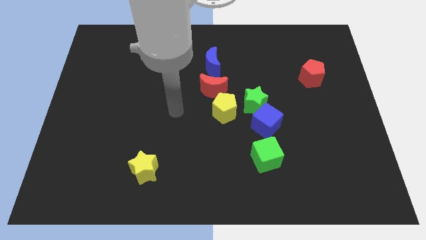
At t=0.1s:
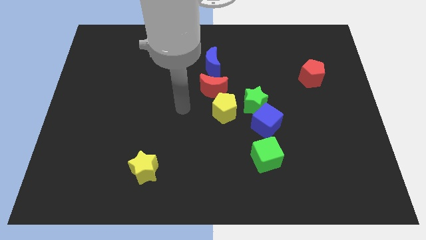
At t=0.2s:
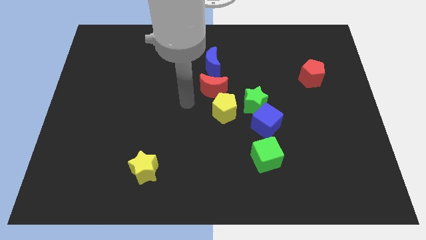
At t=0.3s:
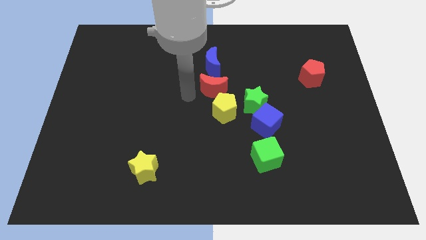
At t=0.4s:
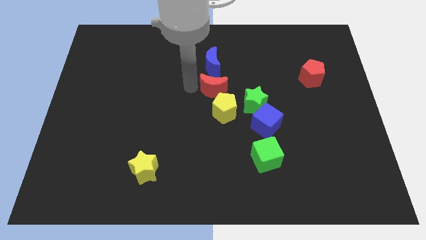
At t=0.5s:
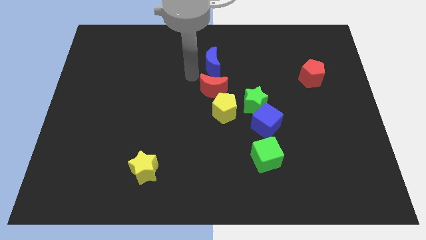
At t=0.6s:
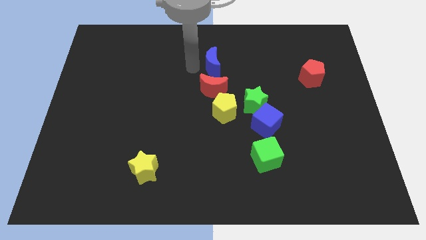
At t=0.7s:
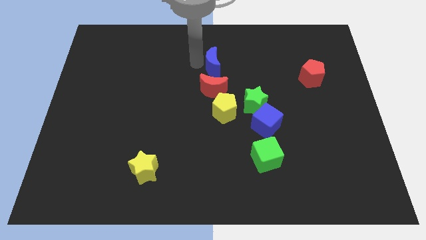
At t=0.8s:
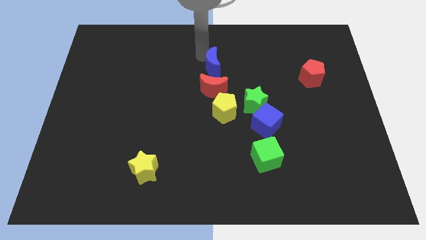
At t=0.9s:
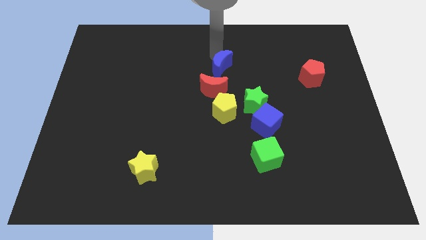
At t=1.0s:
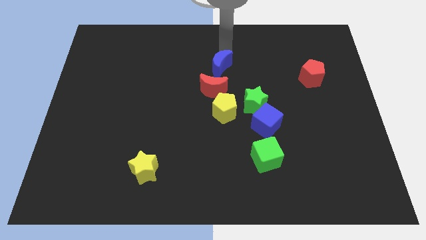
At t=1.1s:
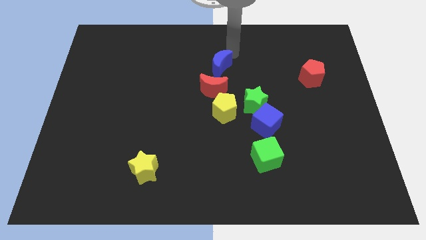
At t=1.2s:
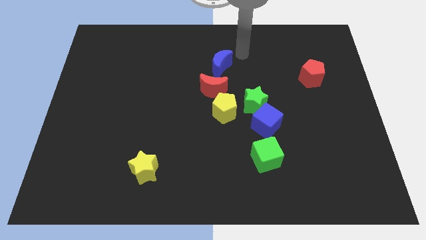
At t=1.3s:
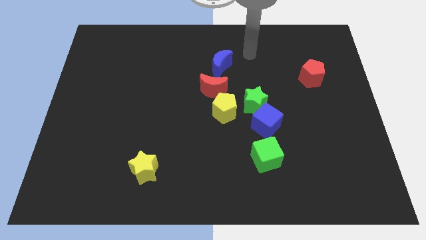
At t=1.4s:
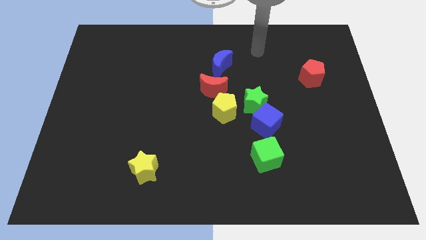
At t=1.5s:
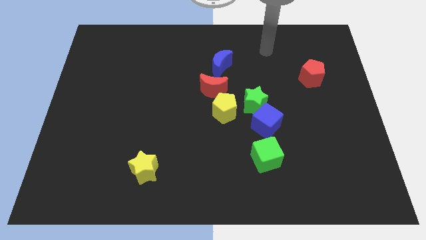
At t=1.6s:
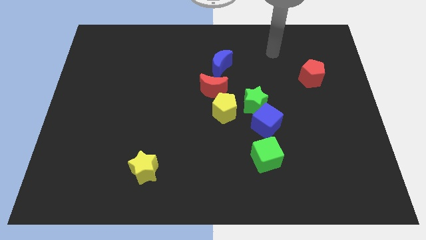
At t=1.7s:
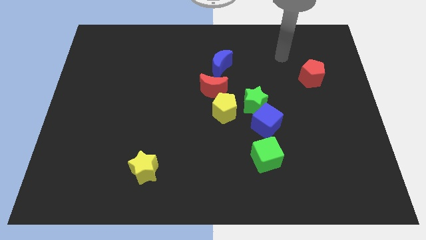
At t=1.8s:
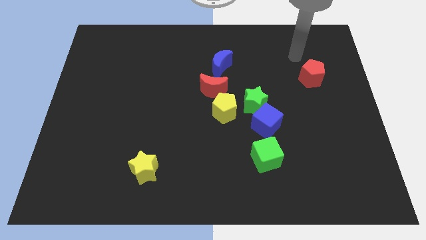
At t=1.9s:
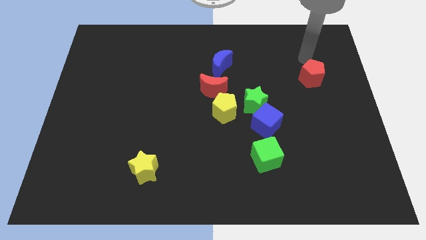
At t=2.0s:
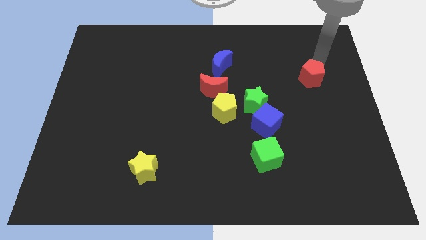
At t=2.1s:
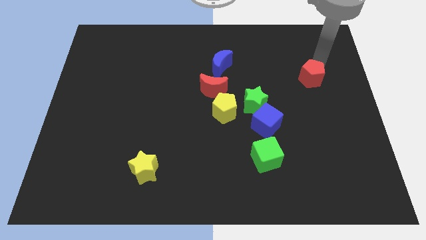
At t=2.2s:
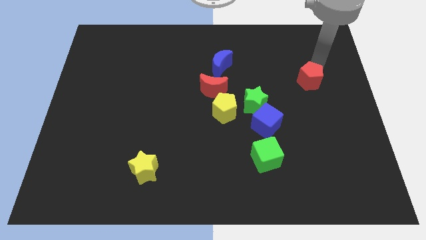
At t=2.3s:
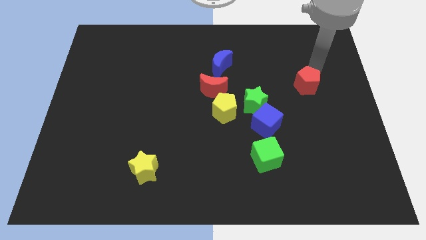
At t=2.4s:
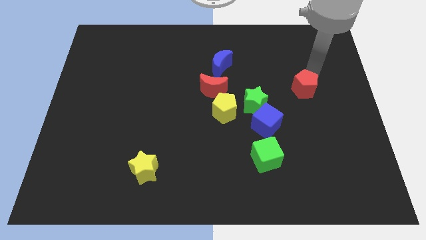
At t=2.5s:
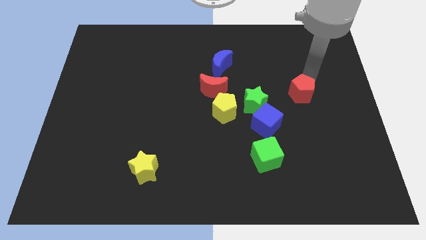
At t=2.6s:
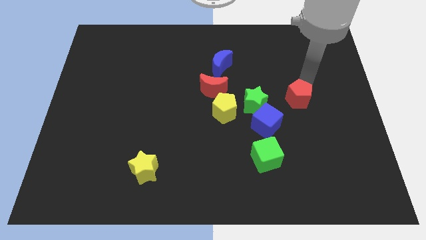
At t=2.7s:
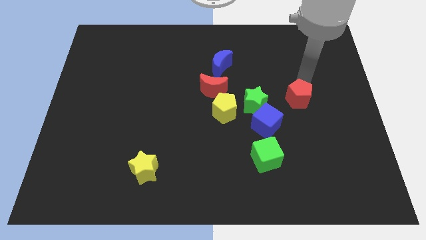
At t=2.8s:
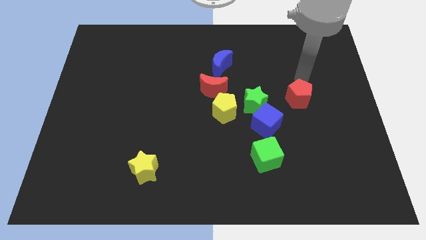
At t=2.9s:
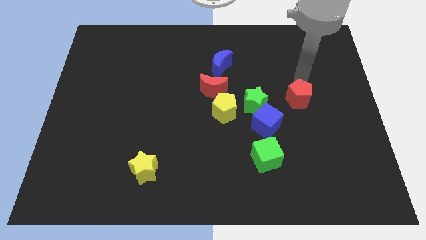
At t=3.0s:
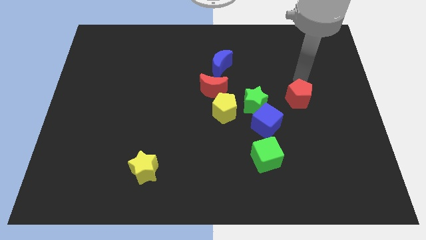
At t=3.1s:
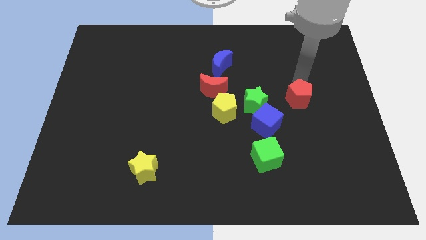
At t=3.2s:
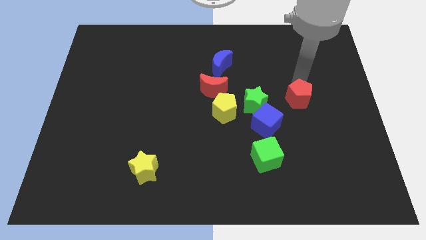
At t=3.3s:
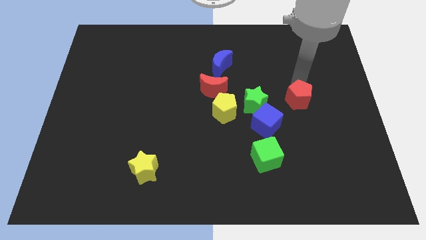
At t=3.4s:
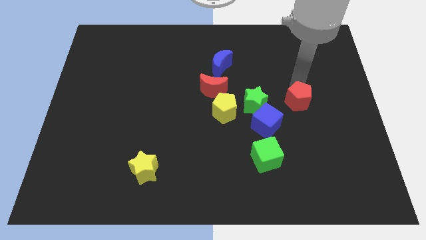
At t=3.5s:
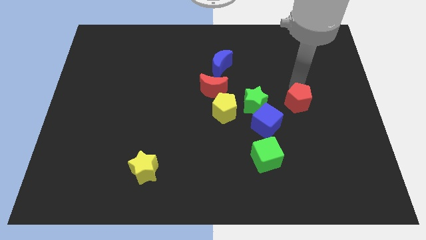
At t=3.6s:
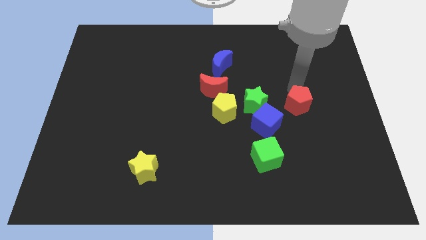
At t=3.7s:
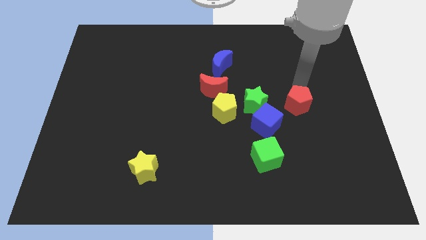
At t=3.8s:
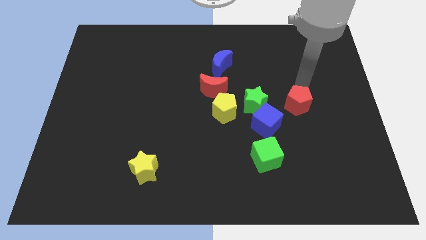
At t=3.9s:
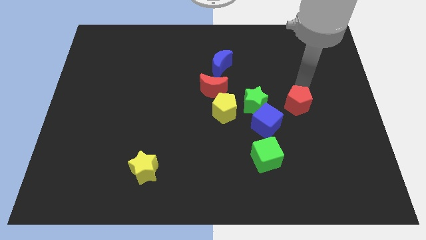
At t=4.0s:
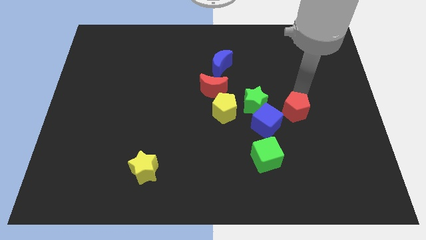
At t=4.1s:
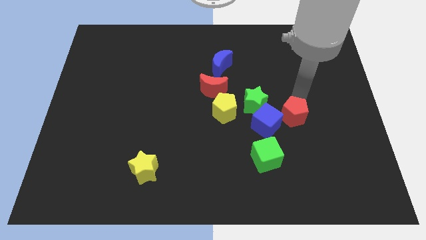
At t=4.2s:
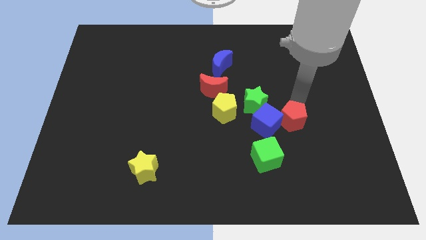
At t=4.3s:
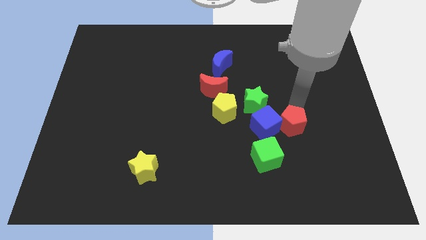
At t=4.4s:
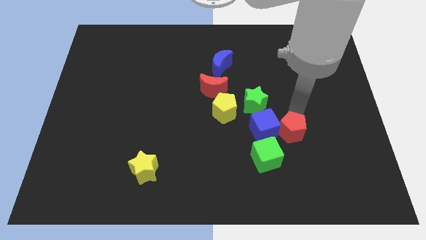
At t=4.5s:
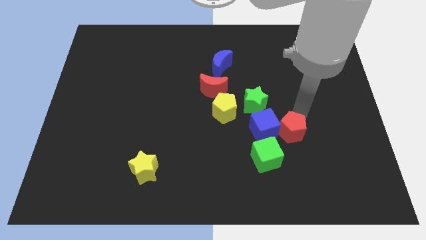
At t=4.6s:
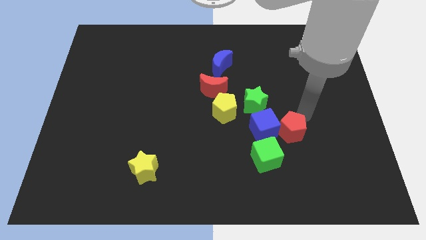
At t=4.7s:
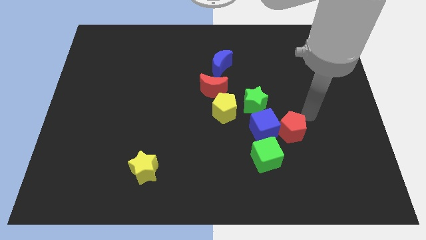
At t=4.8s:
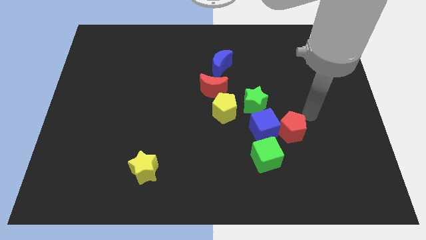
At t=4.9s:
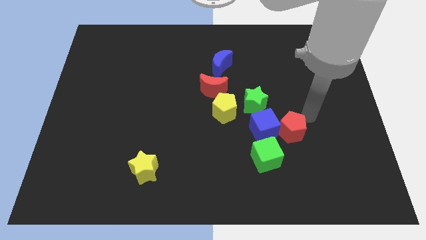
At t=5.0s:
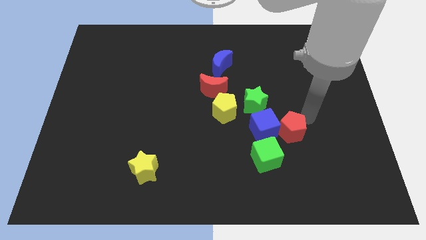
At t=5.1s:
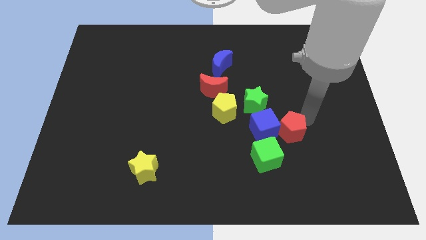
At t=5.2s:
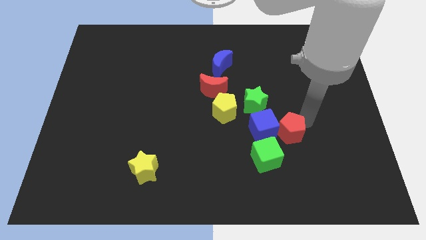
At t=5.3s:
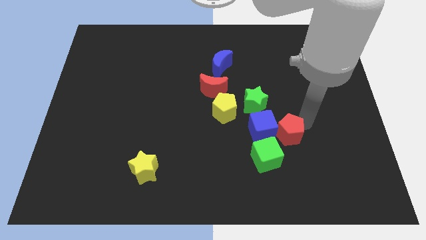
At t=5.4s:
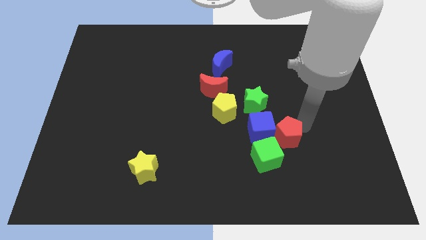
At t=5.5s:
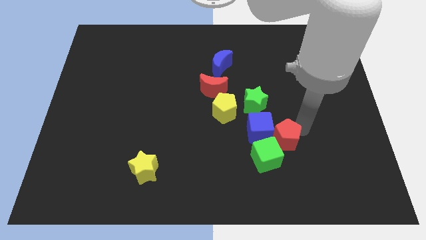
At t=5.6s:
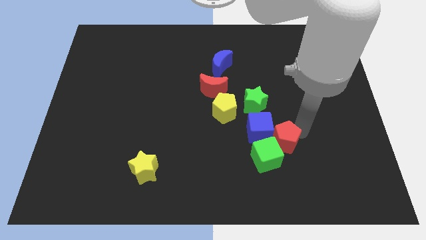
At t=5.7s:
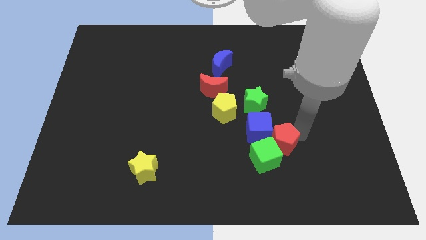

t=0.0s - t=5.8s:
slide the red pentagon next to the green cube

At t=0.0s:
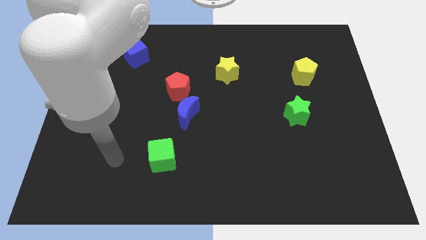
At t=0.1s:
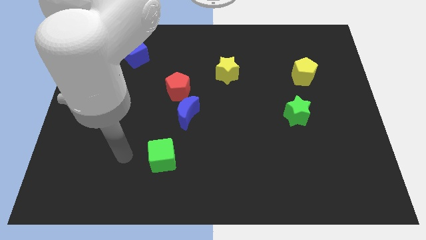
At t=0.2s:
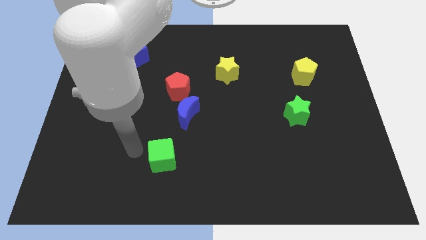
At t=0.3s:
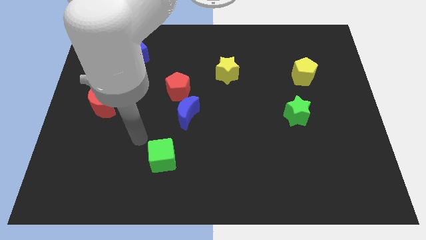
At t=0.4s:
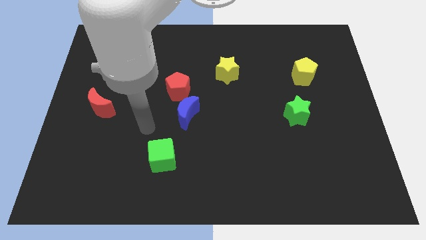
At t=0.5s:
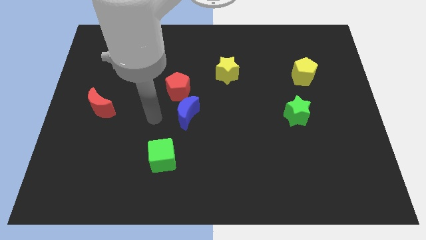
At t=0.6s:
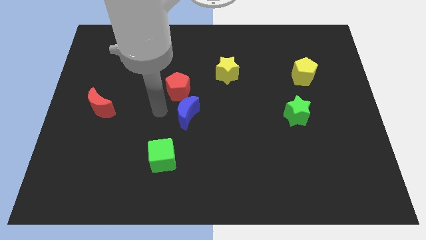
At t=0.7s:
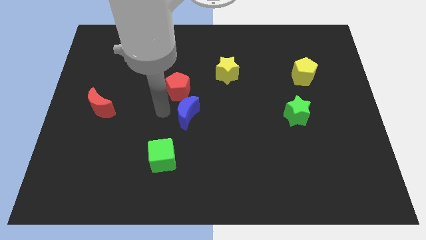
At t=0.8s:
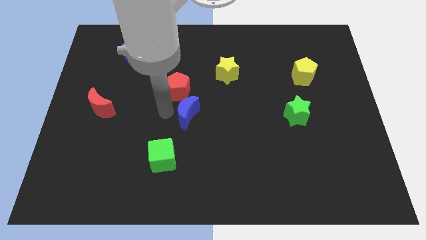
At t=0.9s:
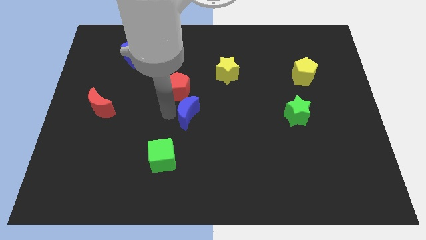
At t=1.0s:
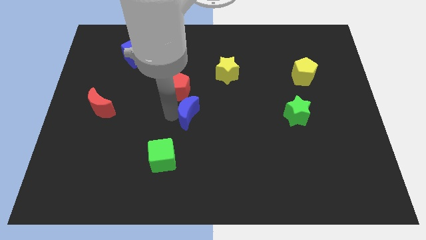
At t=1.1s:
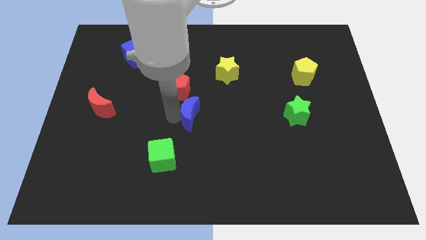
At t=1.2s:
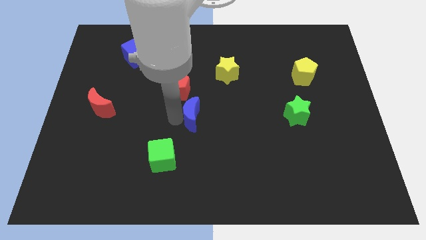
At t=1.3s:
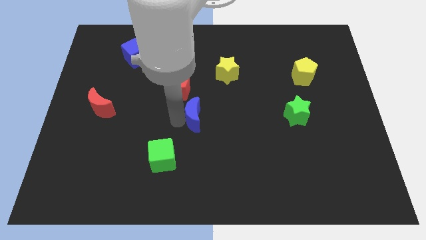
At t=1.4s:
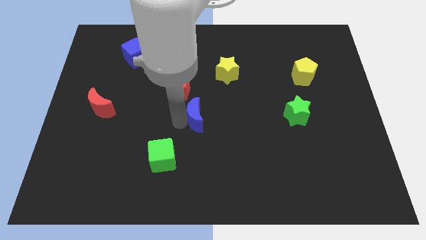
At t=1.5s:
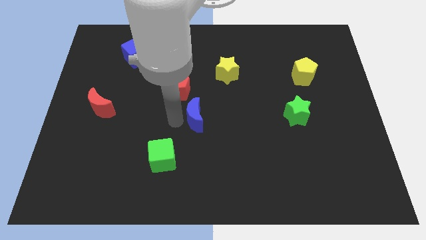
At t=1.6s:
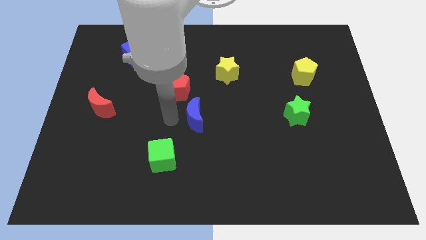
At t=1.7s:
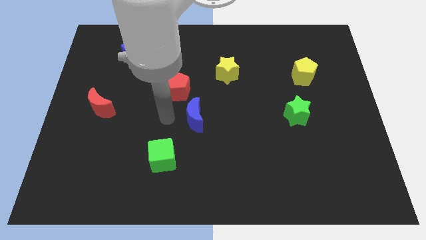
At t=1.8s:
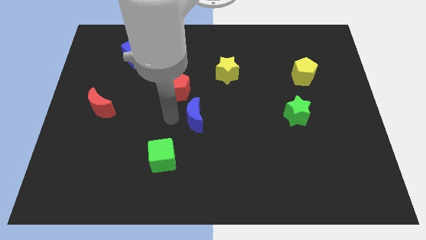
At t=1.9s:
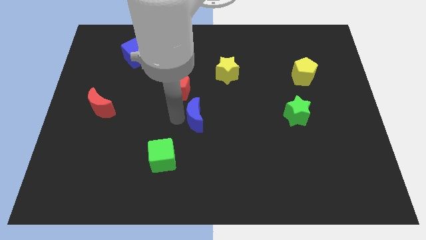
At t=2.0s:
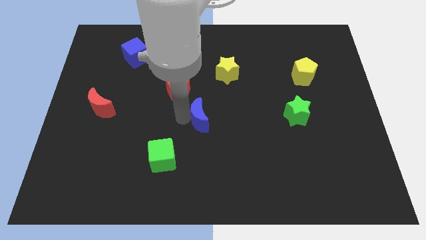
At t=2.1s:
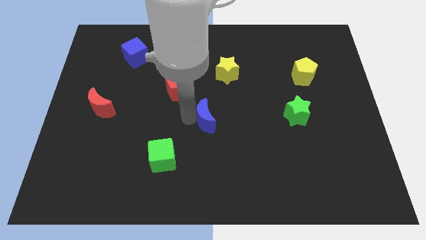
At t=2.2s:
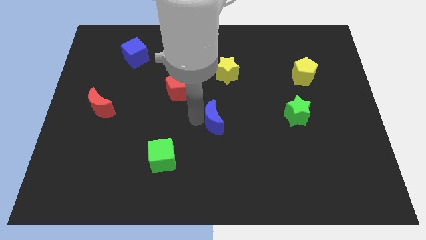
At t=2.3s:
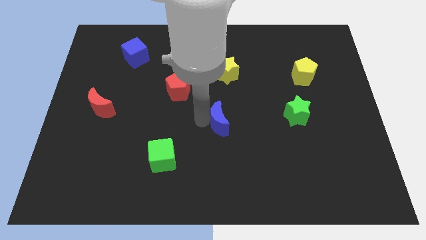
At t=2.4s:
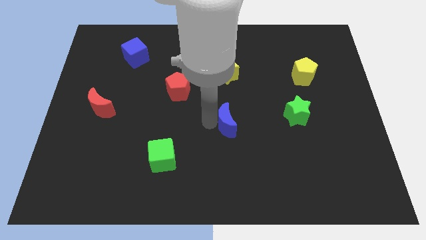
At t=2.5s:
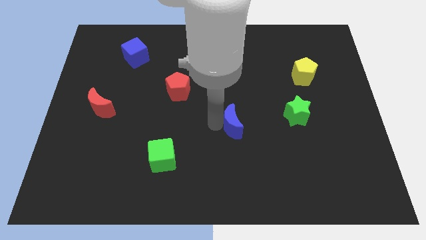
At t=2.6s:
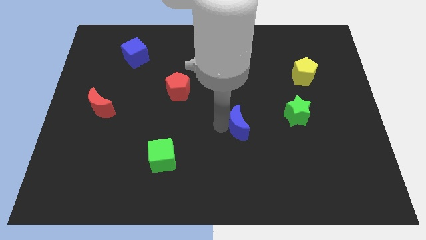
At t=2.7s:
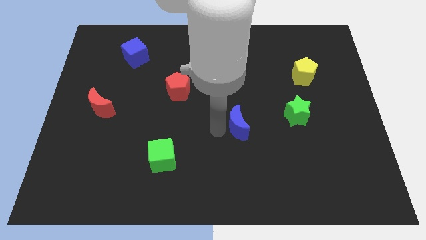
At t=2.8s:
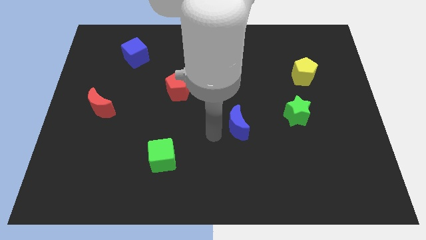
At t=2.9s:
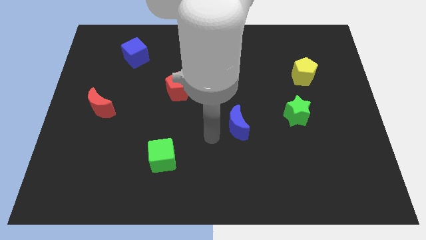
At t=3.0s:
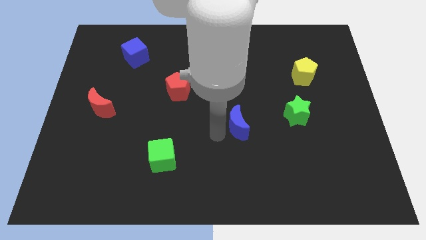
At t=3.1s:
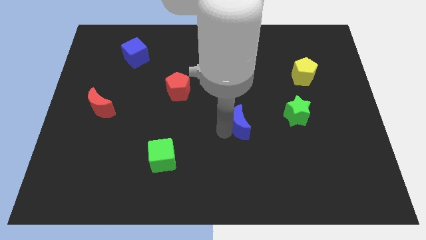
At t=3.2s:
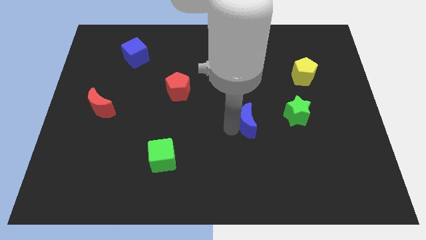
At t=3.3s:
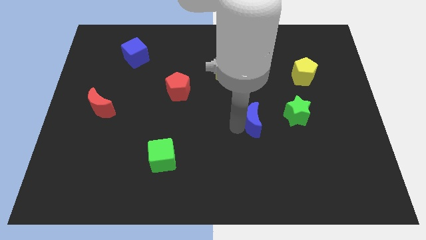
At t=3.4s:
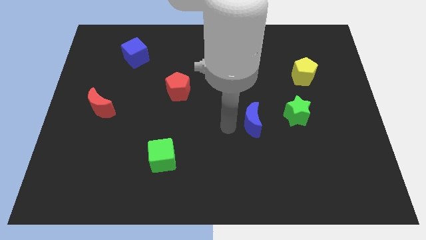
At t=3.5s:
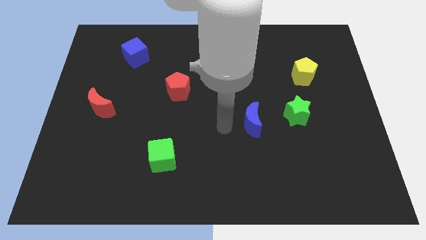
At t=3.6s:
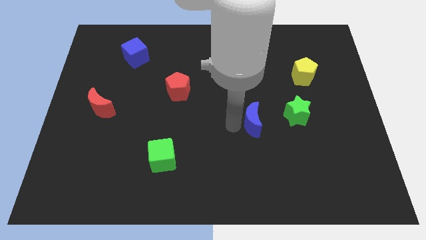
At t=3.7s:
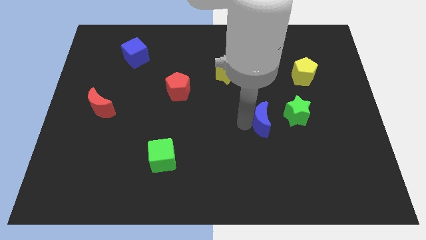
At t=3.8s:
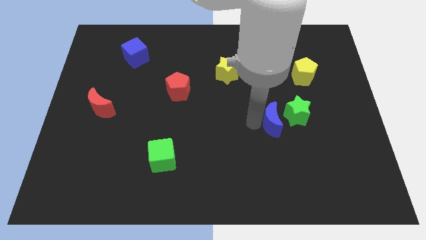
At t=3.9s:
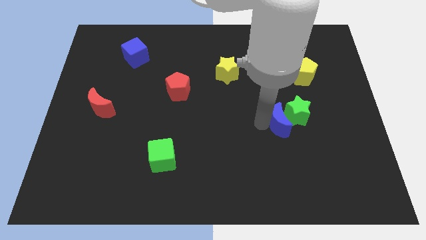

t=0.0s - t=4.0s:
push the blue moon close to the green star
